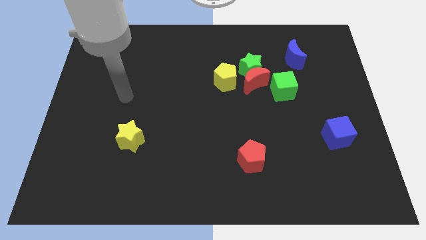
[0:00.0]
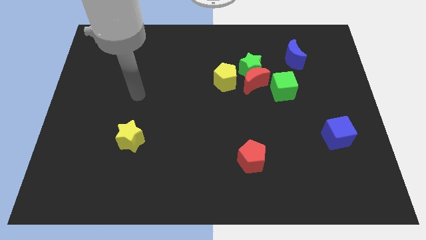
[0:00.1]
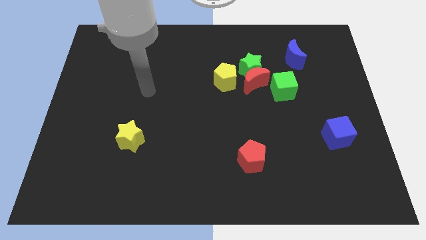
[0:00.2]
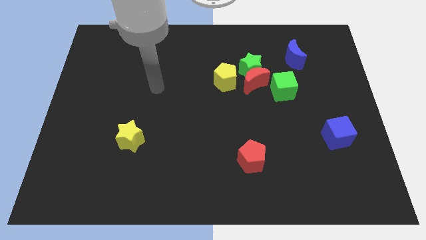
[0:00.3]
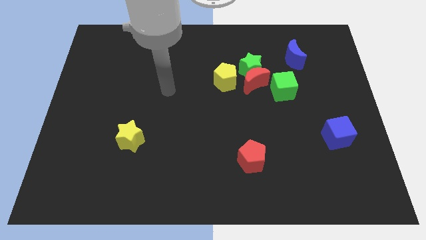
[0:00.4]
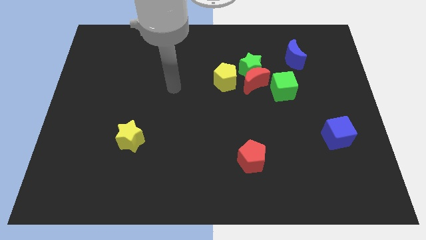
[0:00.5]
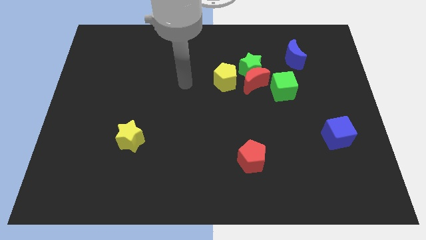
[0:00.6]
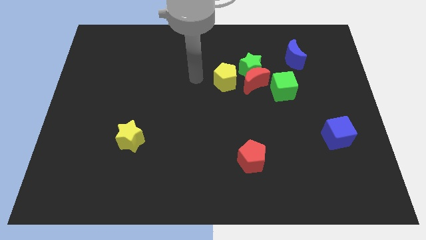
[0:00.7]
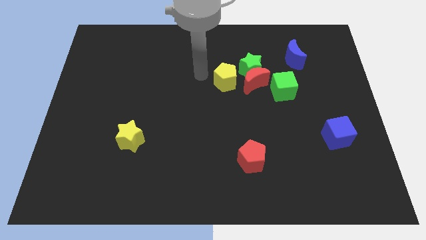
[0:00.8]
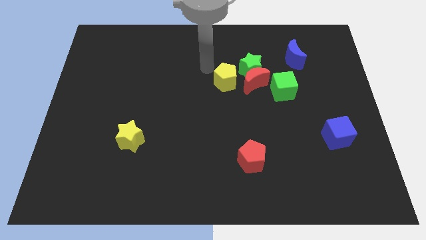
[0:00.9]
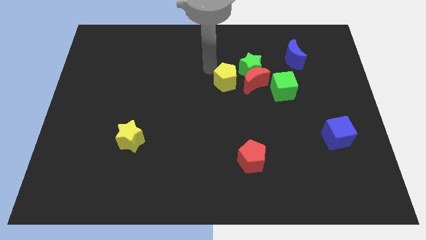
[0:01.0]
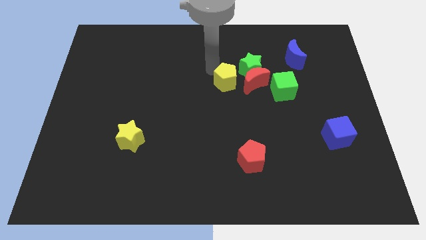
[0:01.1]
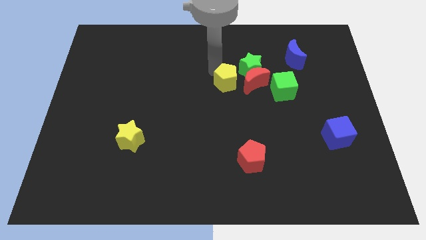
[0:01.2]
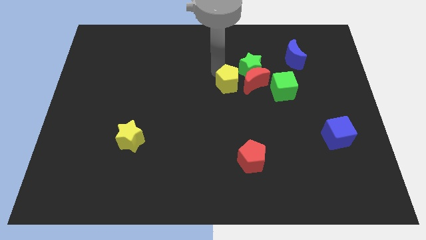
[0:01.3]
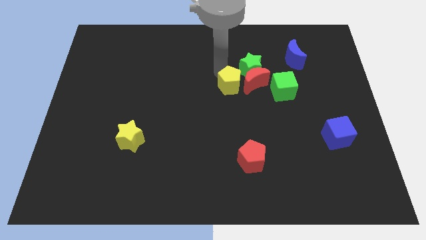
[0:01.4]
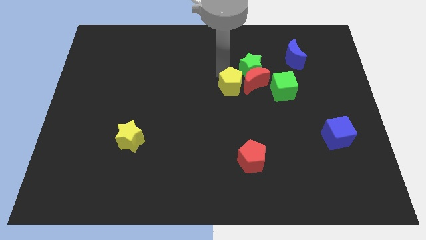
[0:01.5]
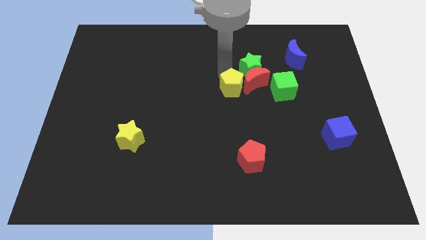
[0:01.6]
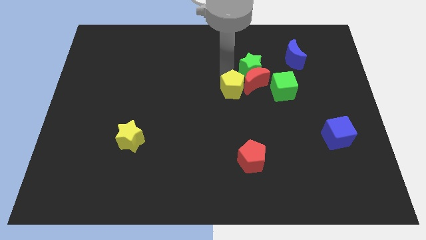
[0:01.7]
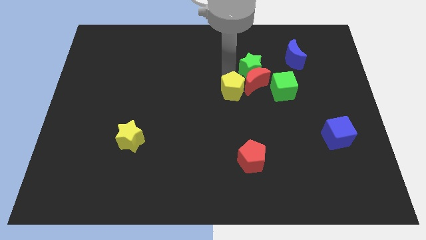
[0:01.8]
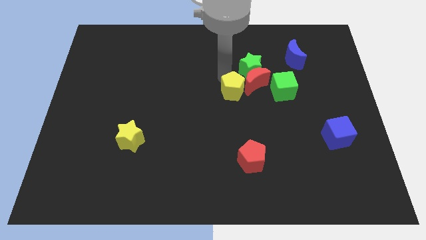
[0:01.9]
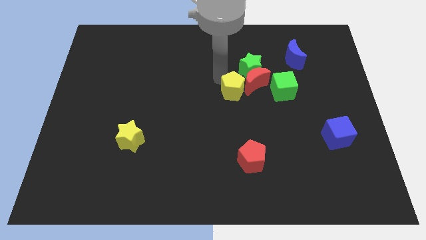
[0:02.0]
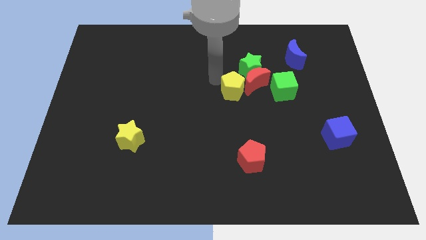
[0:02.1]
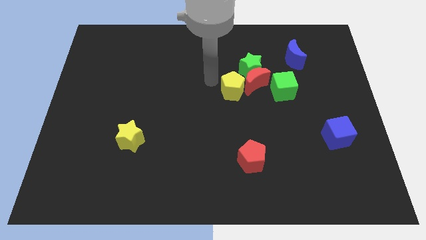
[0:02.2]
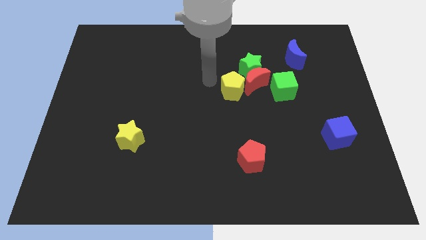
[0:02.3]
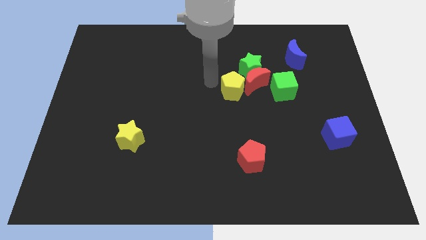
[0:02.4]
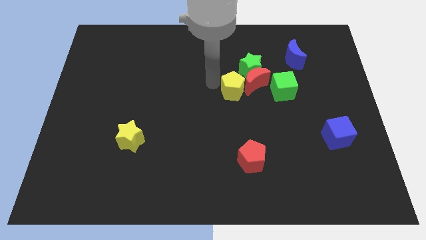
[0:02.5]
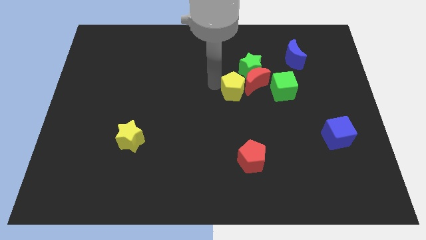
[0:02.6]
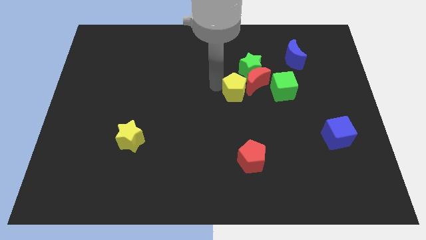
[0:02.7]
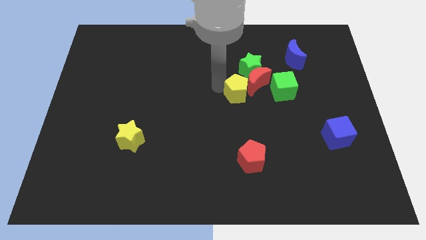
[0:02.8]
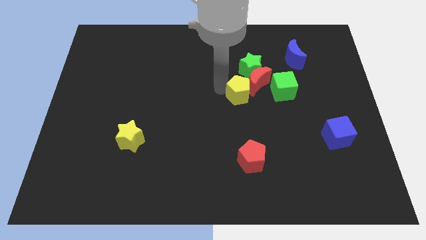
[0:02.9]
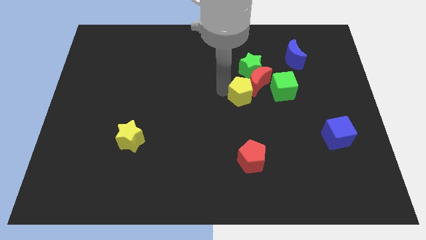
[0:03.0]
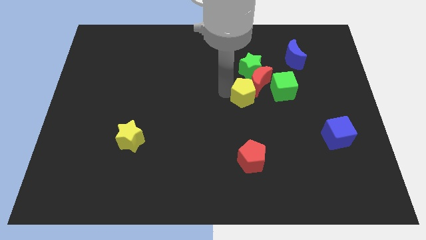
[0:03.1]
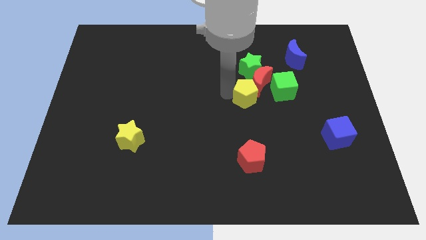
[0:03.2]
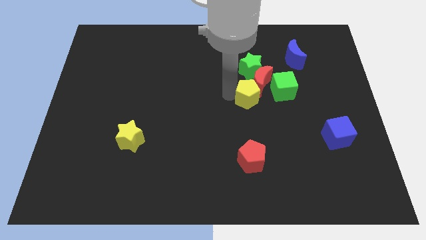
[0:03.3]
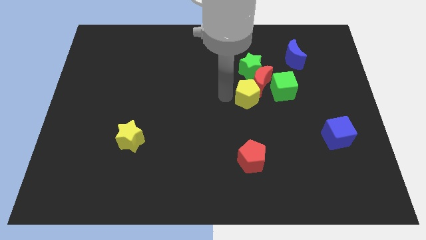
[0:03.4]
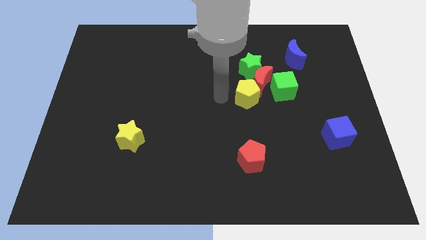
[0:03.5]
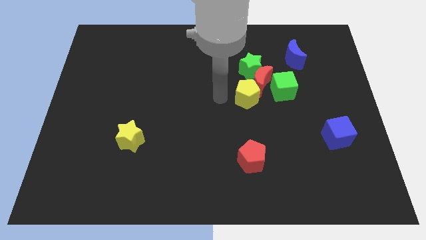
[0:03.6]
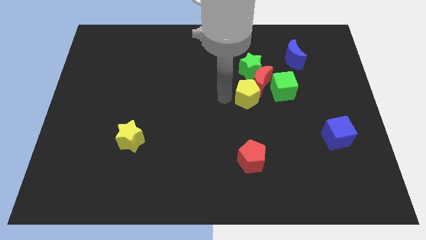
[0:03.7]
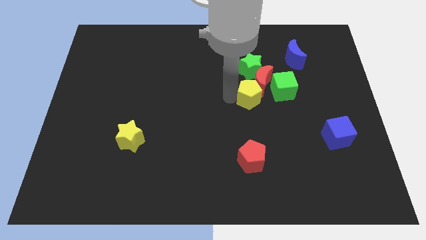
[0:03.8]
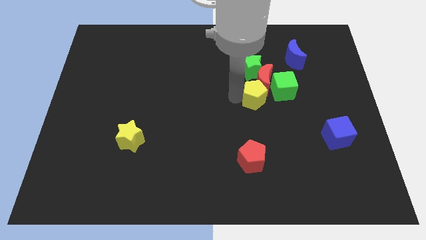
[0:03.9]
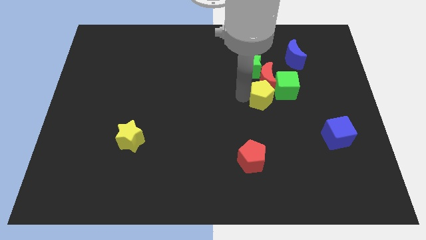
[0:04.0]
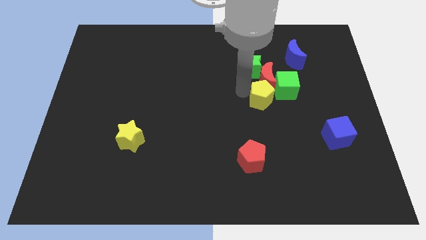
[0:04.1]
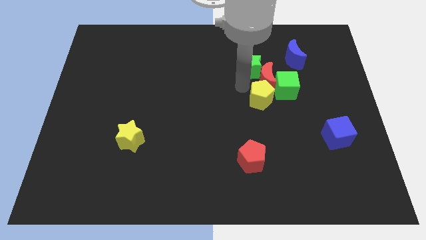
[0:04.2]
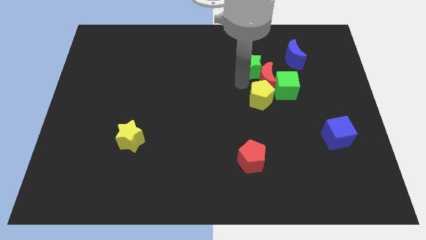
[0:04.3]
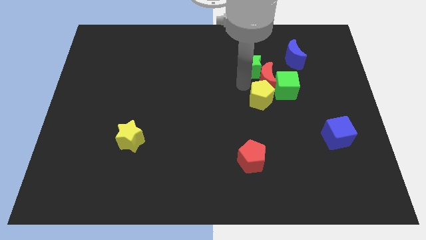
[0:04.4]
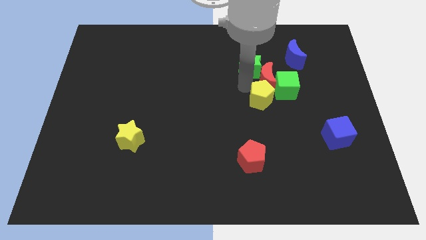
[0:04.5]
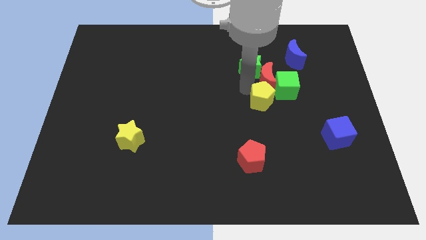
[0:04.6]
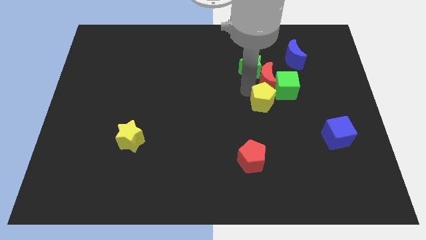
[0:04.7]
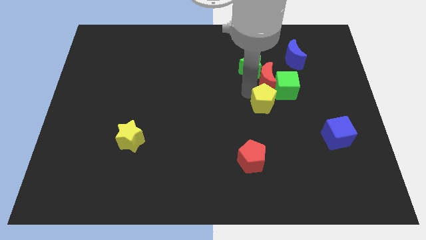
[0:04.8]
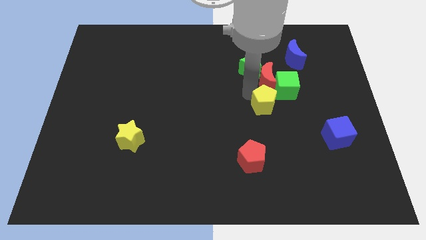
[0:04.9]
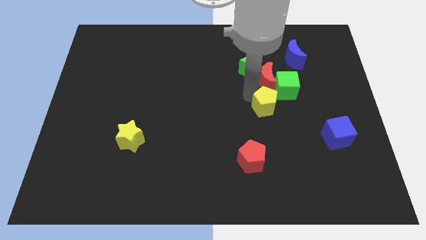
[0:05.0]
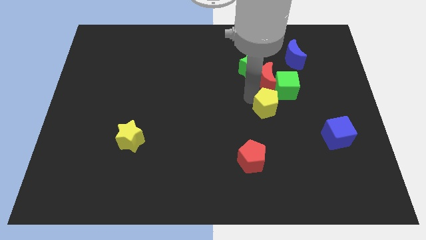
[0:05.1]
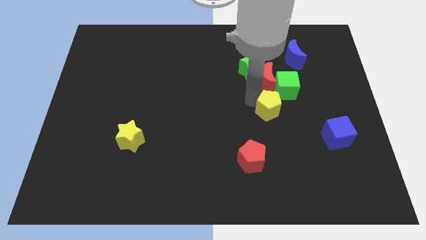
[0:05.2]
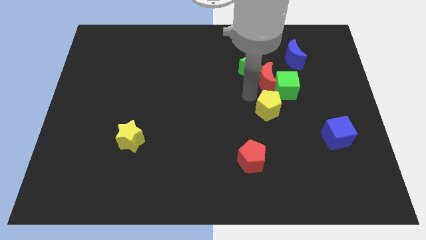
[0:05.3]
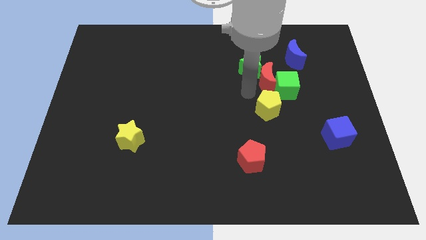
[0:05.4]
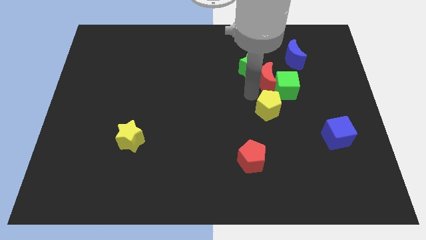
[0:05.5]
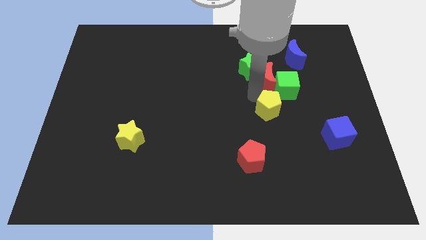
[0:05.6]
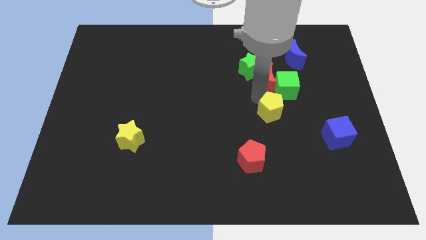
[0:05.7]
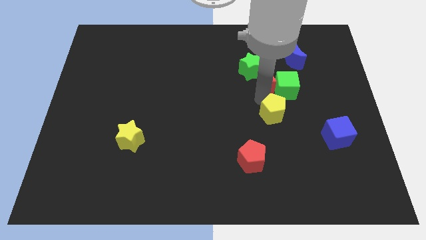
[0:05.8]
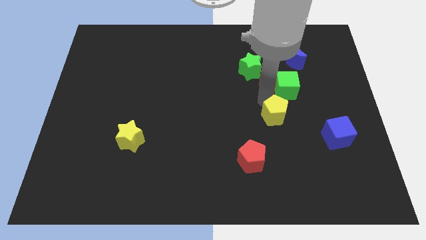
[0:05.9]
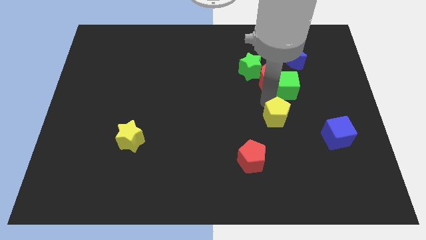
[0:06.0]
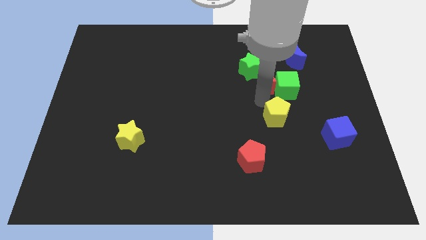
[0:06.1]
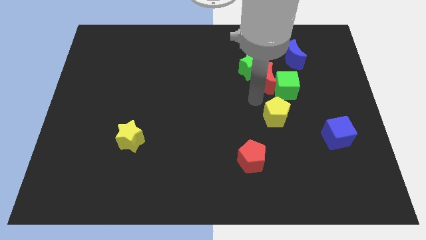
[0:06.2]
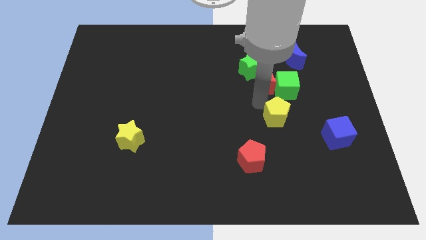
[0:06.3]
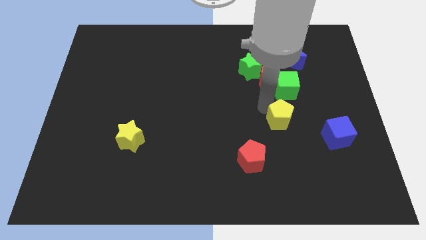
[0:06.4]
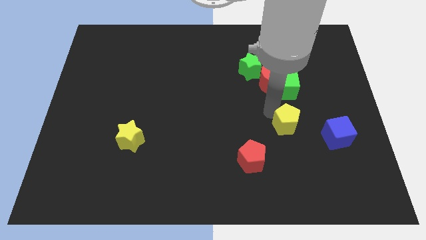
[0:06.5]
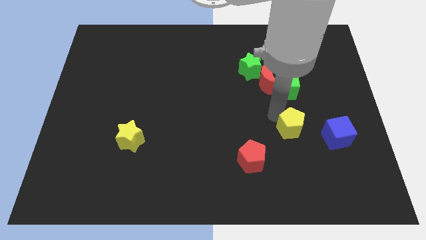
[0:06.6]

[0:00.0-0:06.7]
move the yellow pentagon downwards and right

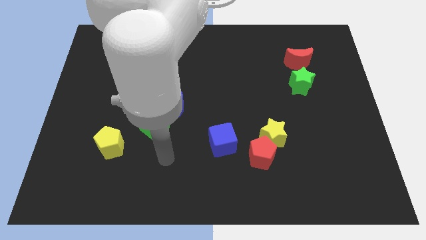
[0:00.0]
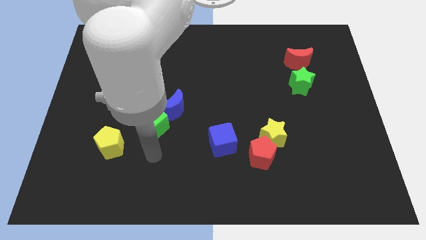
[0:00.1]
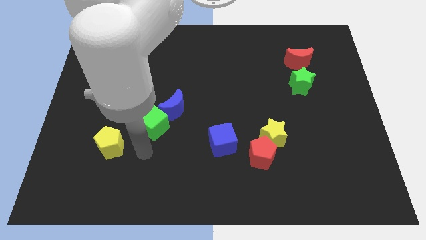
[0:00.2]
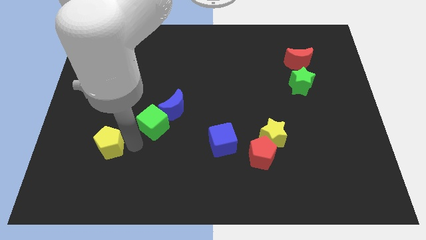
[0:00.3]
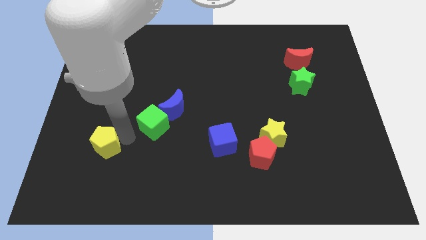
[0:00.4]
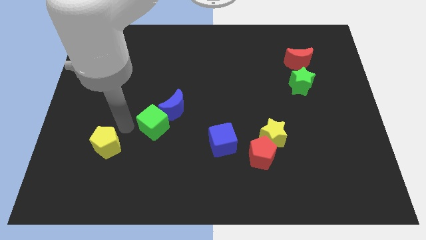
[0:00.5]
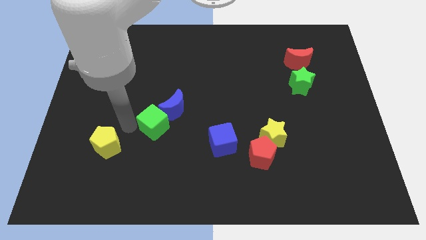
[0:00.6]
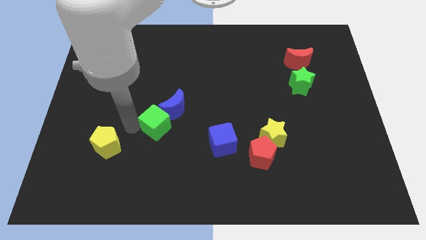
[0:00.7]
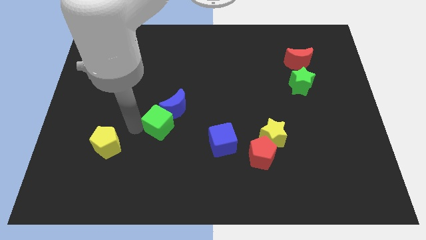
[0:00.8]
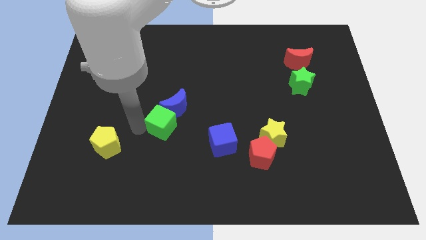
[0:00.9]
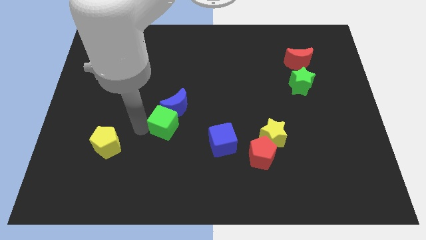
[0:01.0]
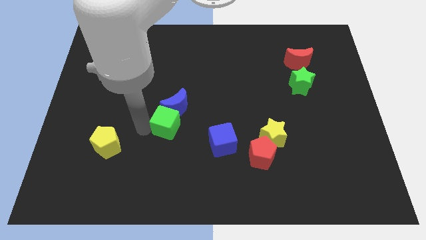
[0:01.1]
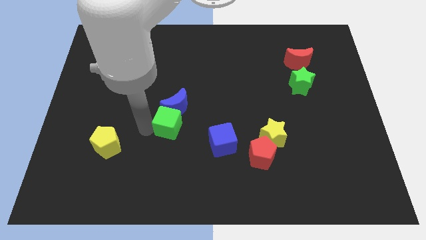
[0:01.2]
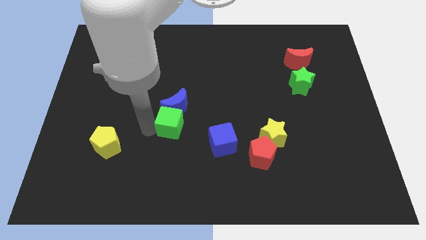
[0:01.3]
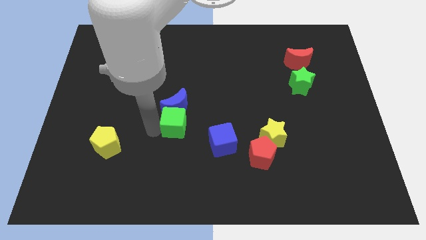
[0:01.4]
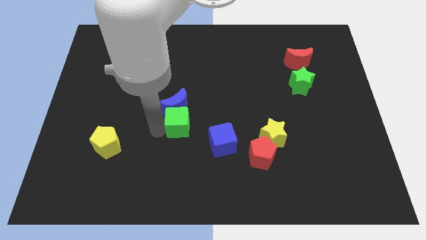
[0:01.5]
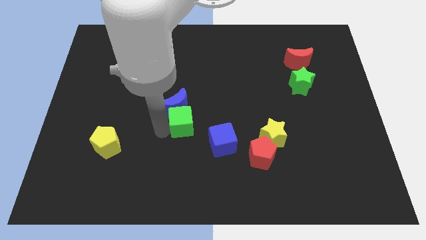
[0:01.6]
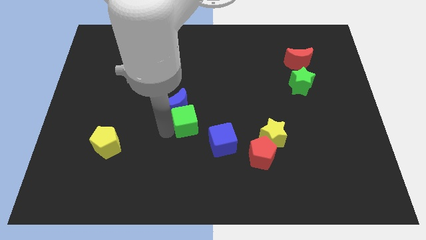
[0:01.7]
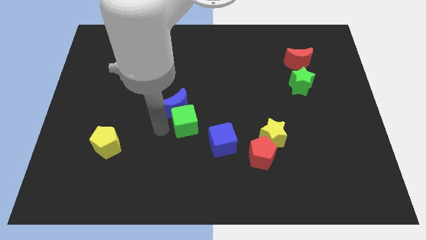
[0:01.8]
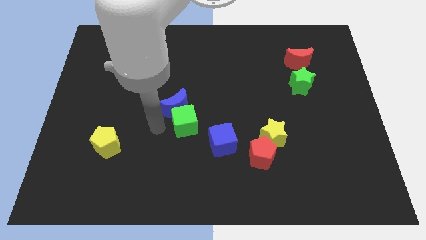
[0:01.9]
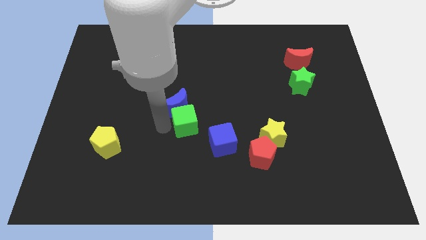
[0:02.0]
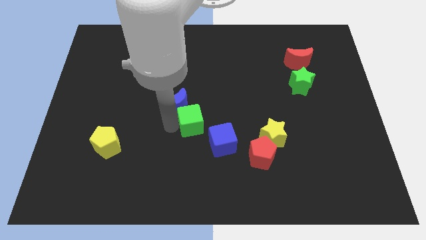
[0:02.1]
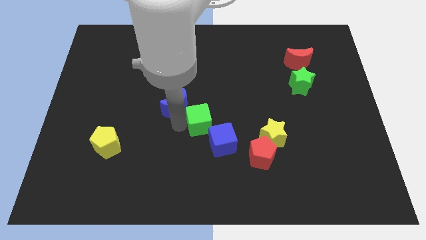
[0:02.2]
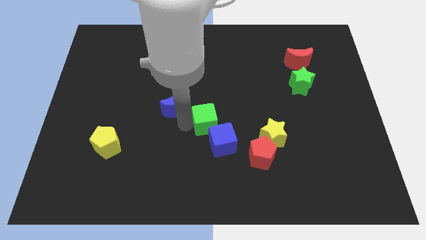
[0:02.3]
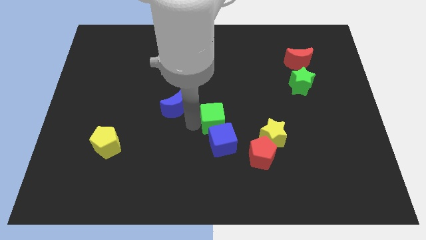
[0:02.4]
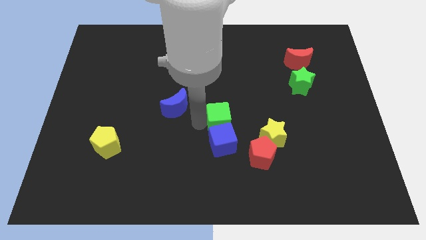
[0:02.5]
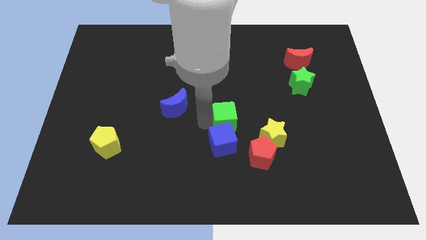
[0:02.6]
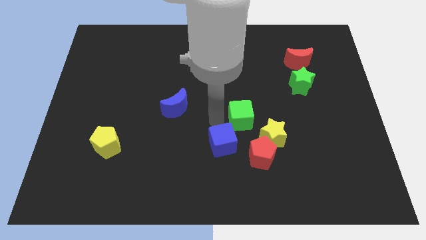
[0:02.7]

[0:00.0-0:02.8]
move the green cube right
